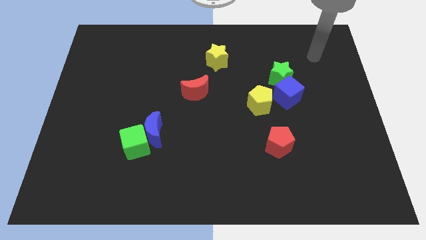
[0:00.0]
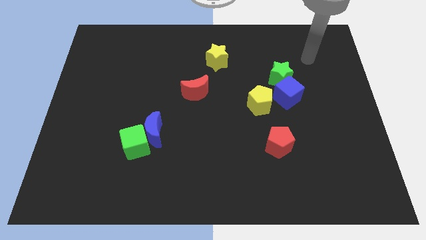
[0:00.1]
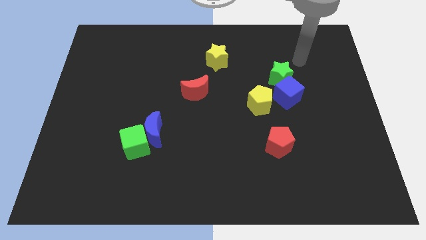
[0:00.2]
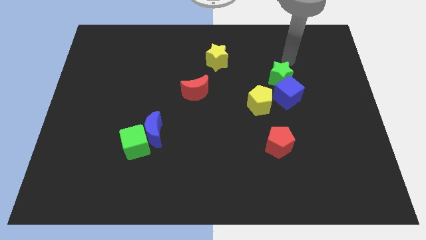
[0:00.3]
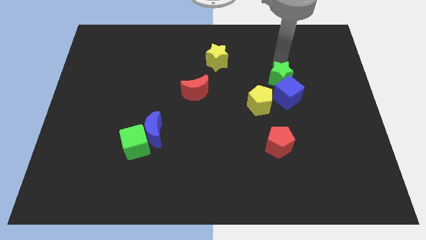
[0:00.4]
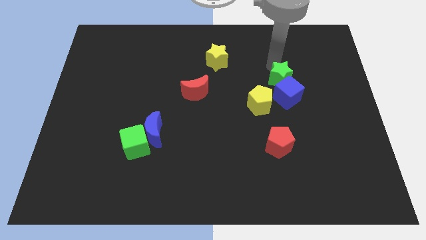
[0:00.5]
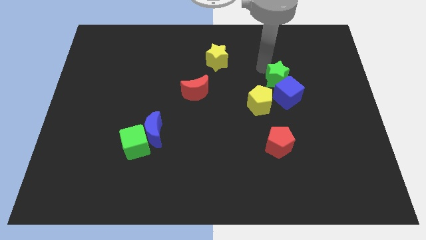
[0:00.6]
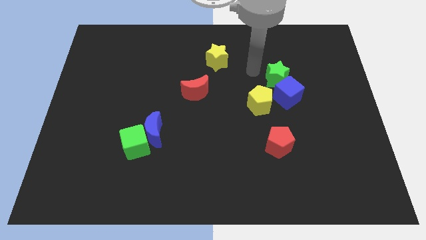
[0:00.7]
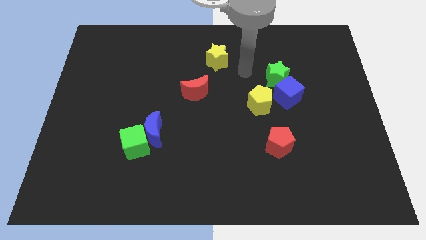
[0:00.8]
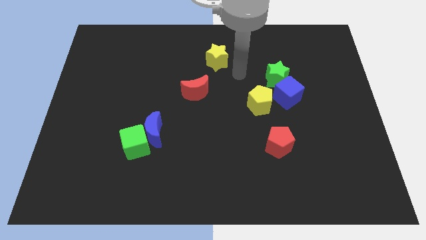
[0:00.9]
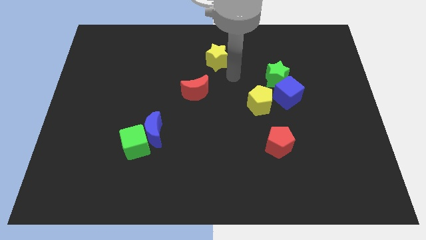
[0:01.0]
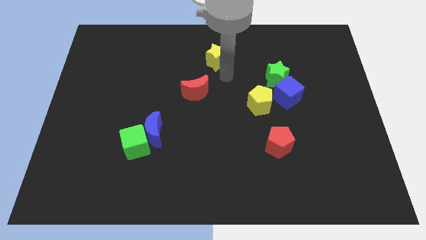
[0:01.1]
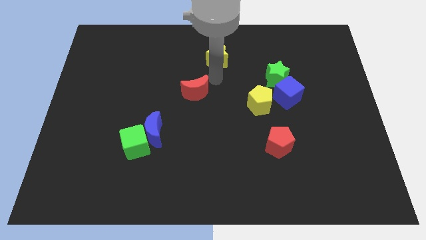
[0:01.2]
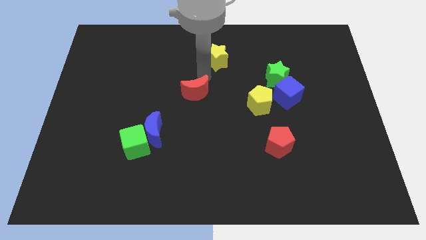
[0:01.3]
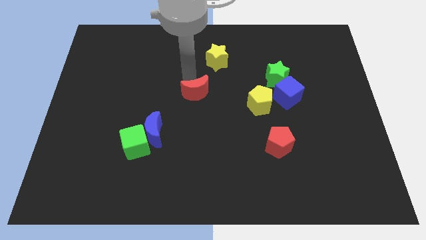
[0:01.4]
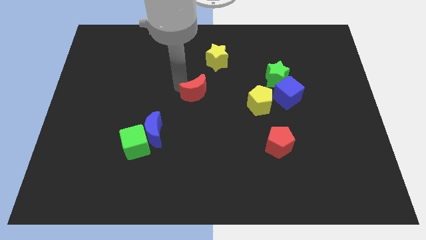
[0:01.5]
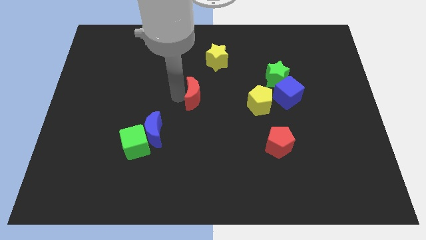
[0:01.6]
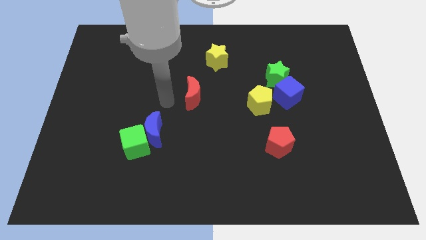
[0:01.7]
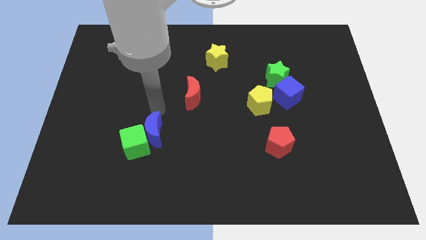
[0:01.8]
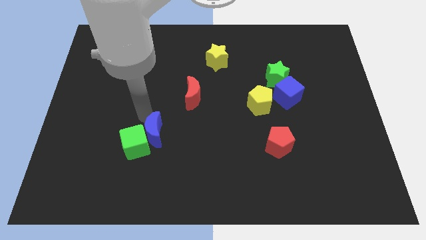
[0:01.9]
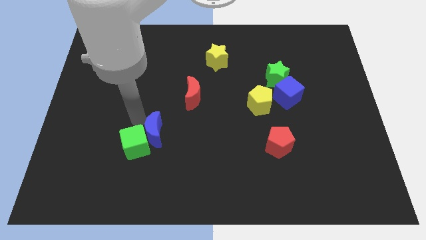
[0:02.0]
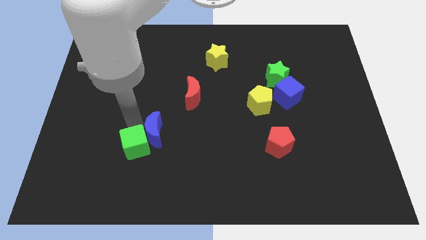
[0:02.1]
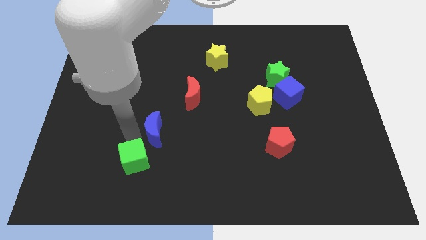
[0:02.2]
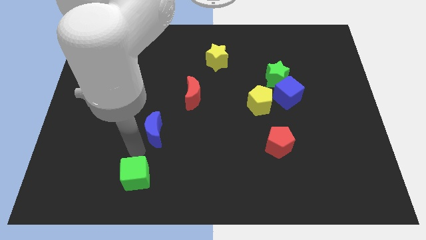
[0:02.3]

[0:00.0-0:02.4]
move the blue moon away from the green cube

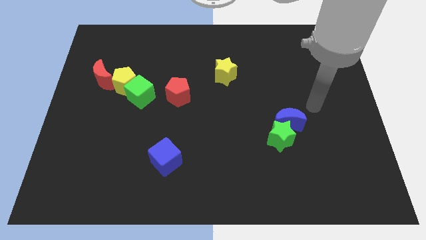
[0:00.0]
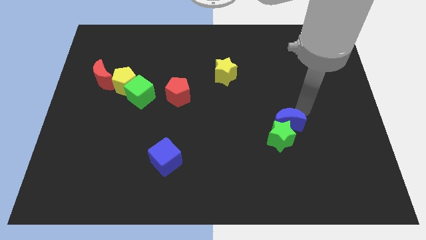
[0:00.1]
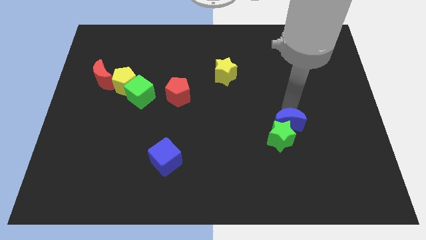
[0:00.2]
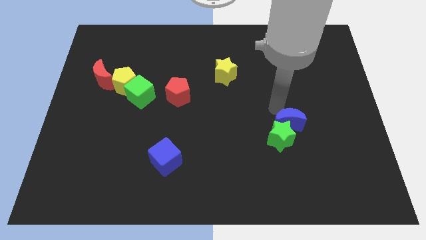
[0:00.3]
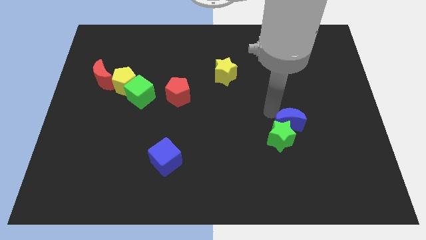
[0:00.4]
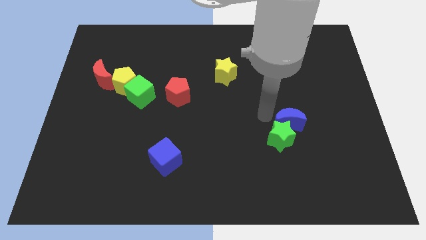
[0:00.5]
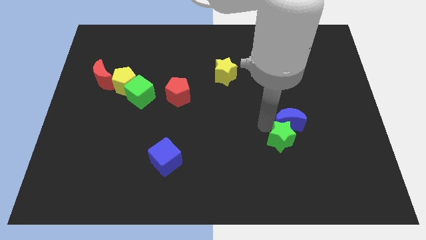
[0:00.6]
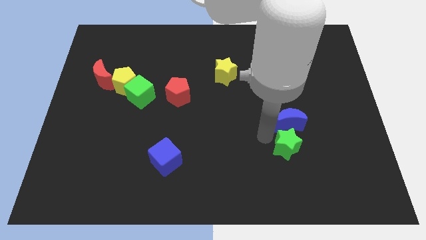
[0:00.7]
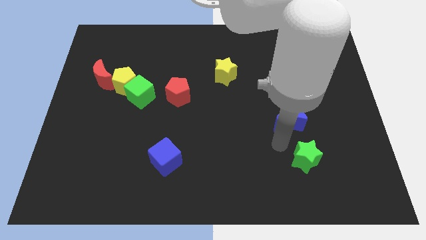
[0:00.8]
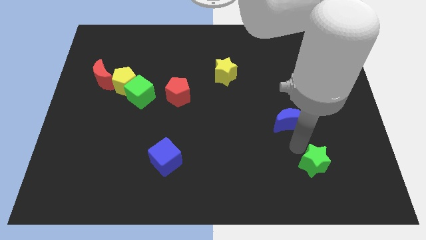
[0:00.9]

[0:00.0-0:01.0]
separate the blue moon from the green star

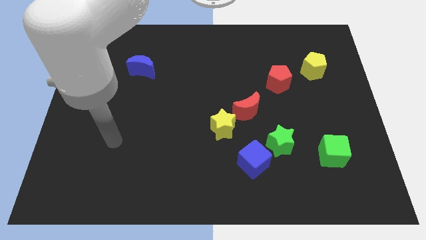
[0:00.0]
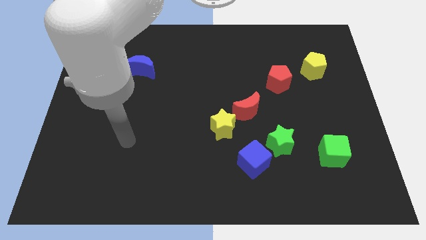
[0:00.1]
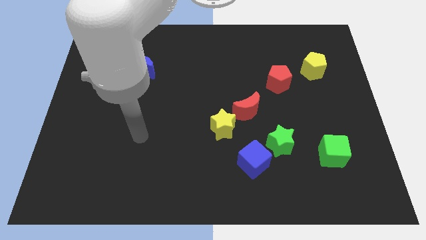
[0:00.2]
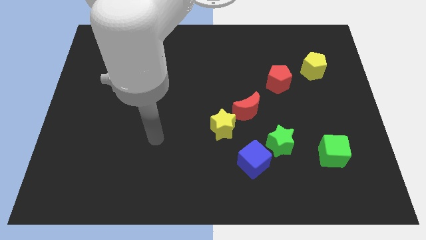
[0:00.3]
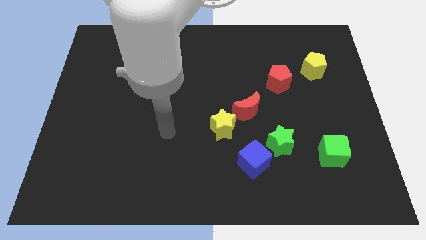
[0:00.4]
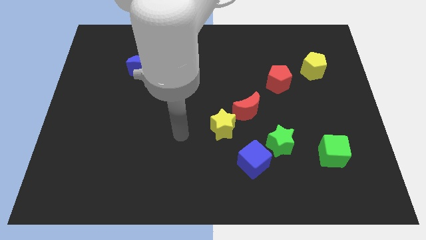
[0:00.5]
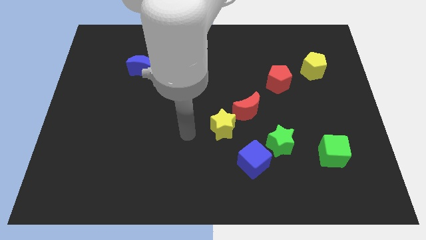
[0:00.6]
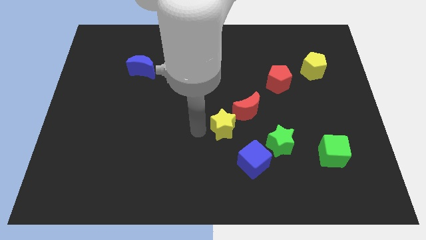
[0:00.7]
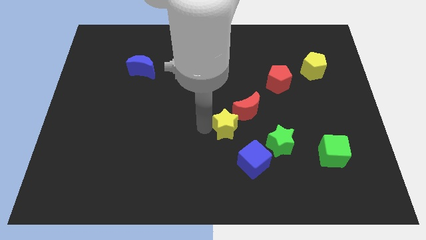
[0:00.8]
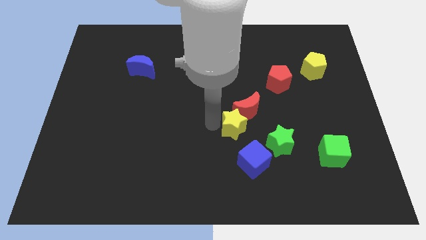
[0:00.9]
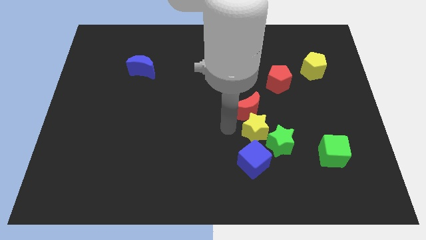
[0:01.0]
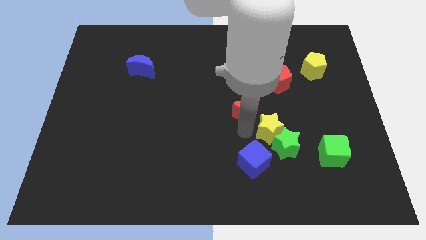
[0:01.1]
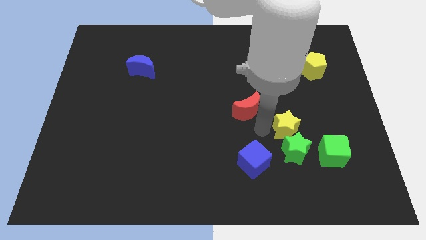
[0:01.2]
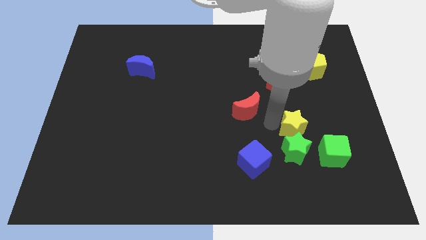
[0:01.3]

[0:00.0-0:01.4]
move the red moon away from the yellow star

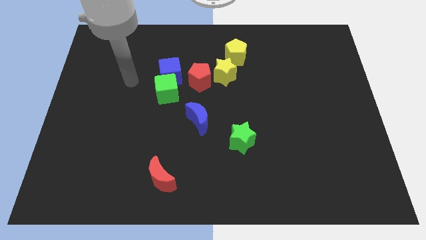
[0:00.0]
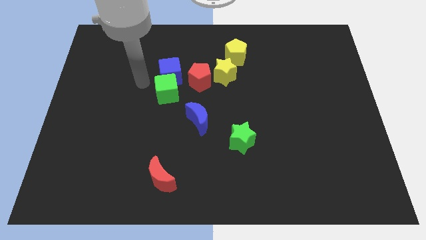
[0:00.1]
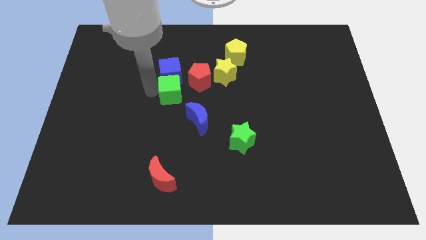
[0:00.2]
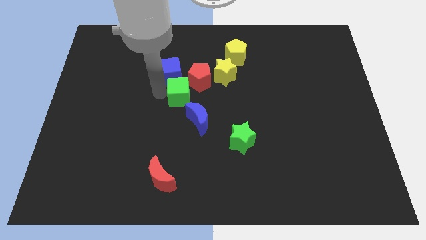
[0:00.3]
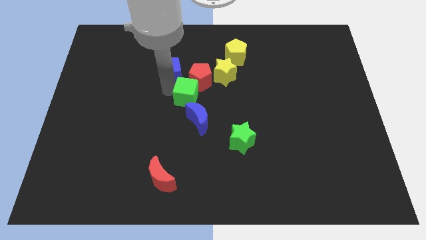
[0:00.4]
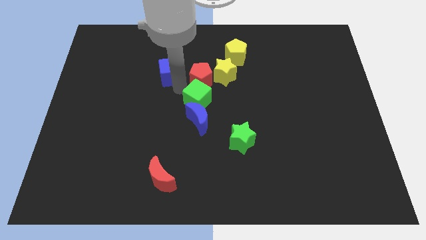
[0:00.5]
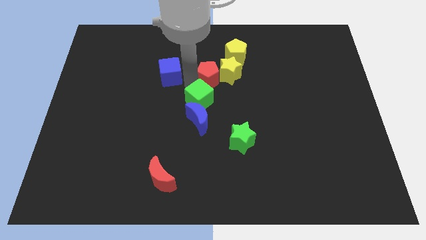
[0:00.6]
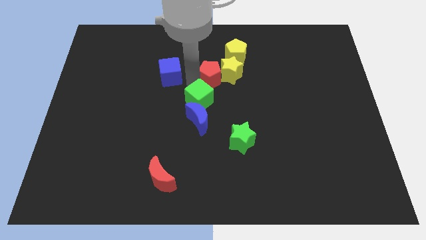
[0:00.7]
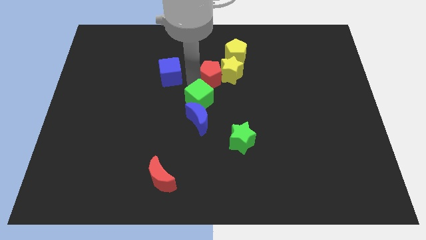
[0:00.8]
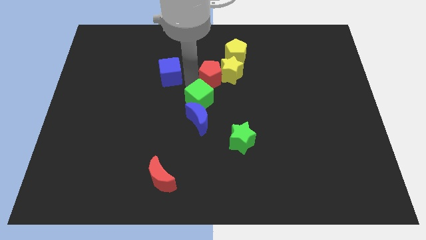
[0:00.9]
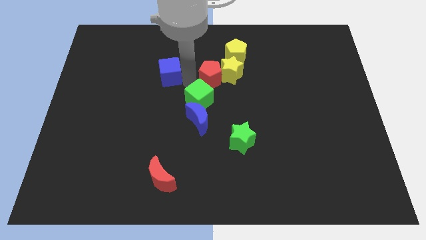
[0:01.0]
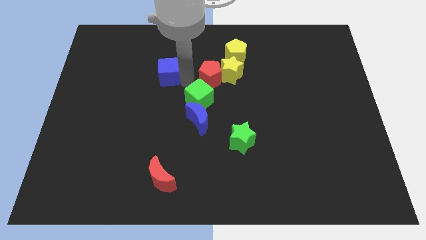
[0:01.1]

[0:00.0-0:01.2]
separate the blue cube from the green cube and red pentagon

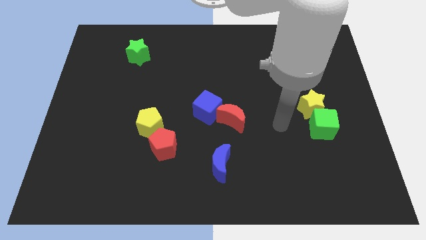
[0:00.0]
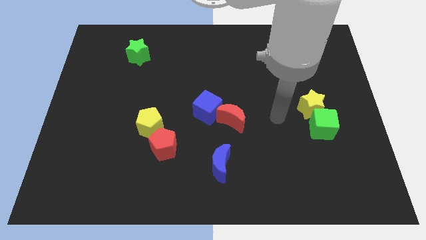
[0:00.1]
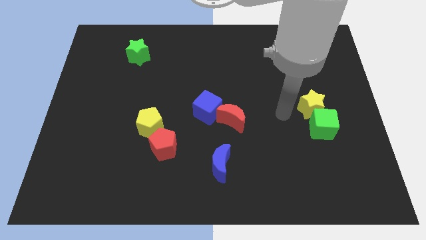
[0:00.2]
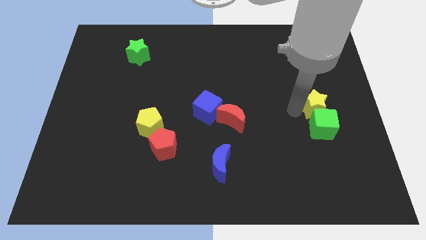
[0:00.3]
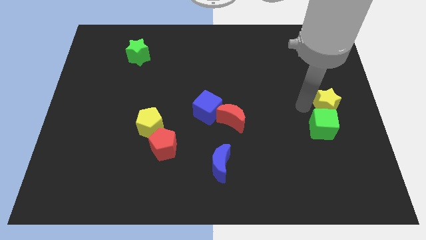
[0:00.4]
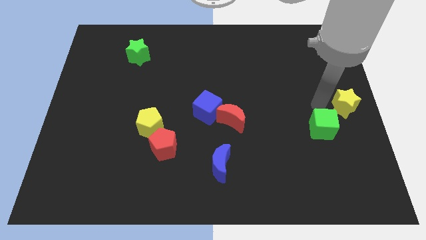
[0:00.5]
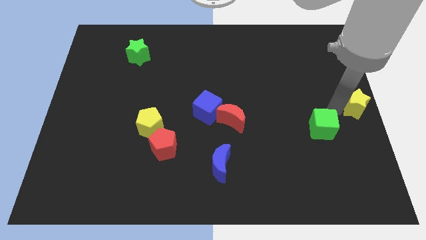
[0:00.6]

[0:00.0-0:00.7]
move the green cube away from the yellow star

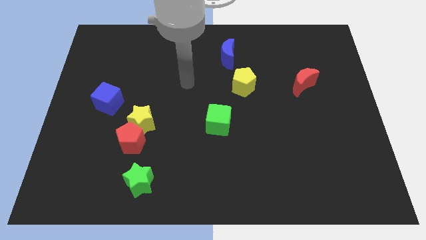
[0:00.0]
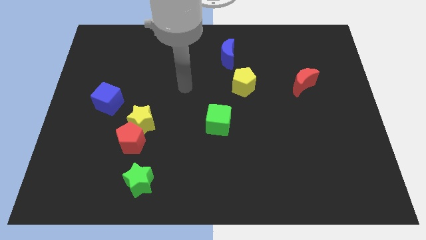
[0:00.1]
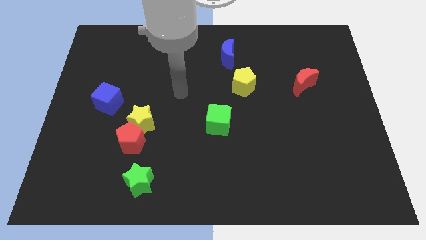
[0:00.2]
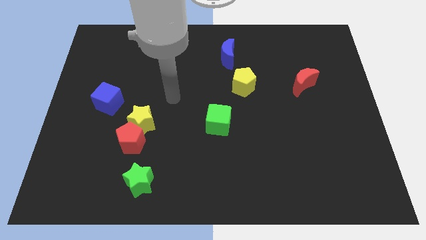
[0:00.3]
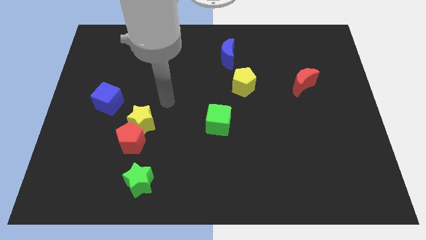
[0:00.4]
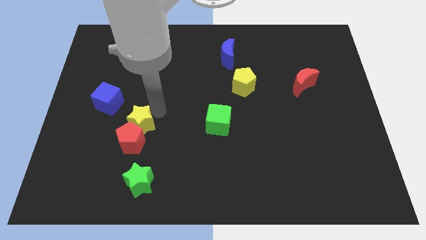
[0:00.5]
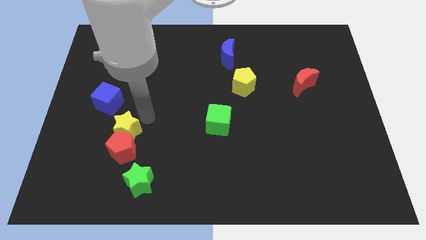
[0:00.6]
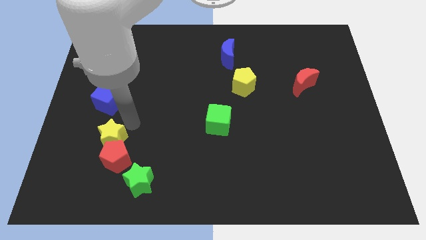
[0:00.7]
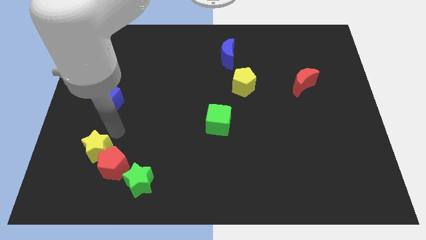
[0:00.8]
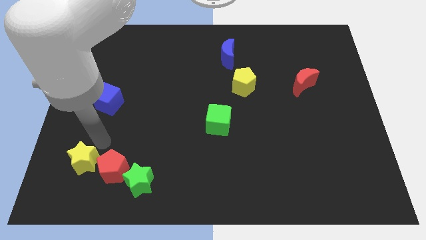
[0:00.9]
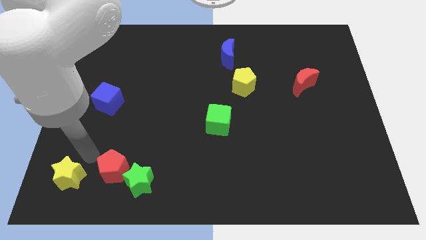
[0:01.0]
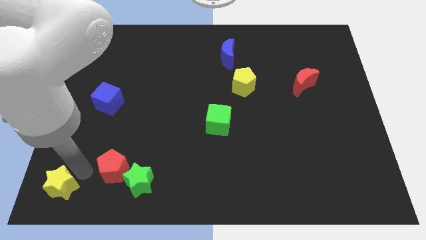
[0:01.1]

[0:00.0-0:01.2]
separate the red pentagon from the yellow star

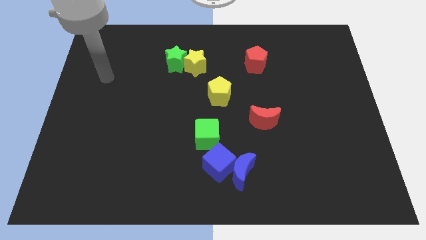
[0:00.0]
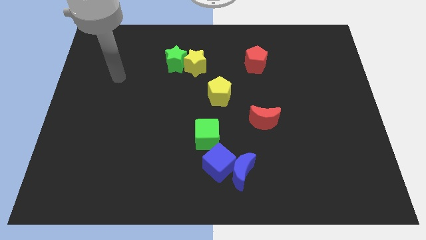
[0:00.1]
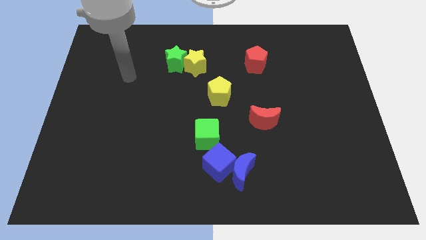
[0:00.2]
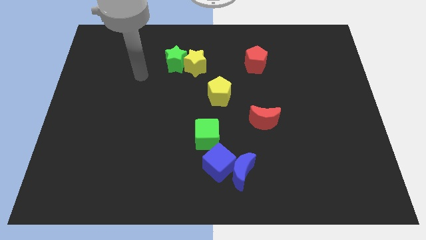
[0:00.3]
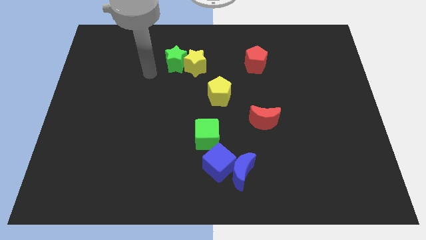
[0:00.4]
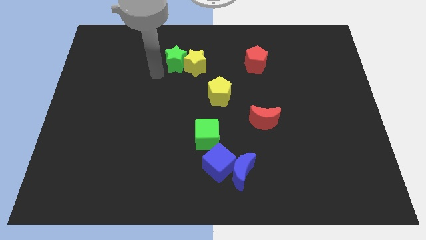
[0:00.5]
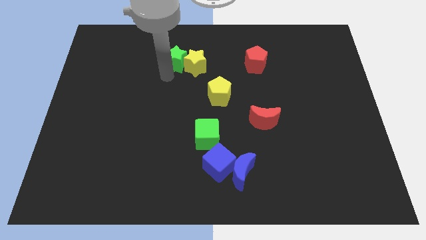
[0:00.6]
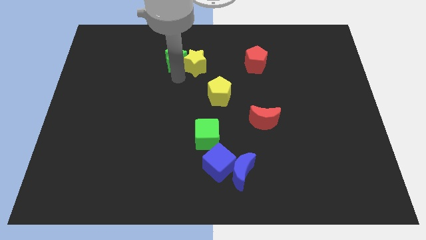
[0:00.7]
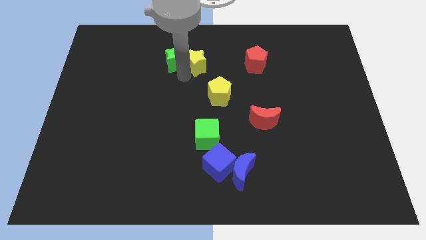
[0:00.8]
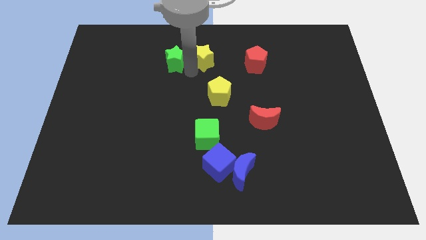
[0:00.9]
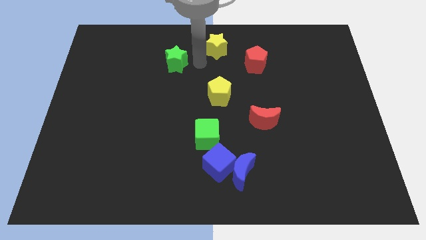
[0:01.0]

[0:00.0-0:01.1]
separate the green star from the yellow star

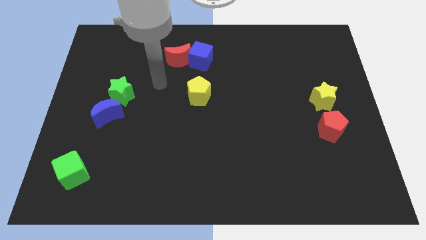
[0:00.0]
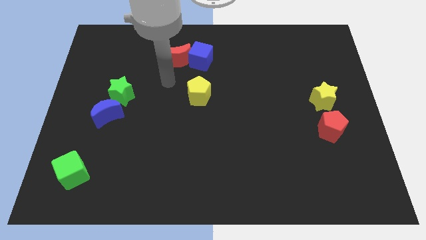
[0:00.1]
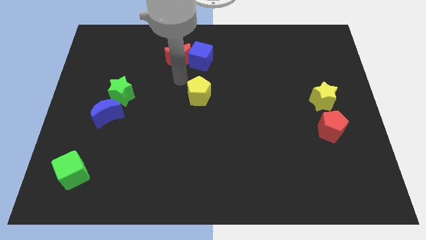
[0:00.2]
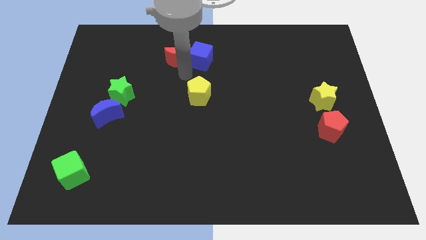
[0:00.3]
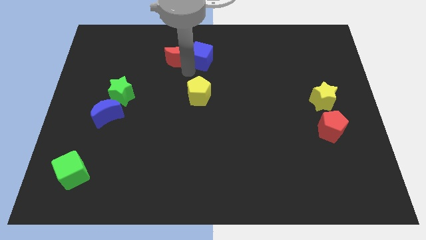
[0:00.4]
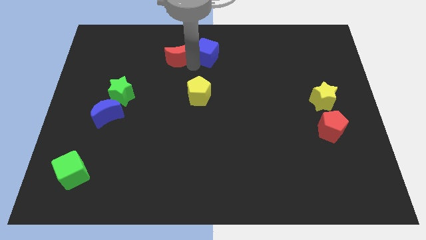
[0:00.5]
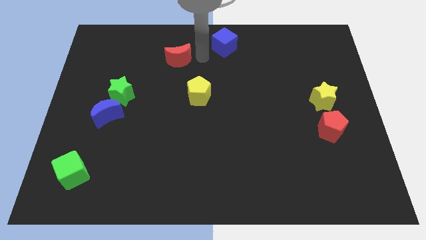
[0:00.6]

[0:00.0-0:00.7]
separate the red moon from the blue cube
